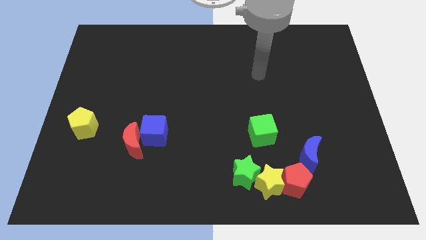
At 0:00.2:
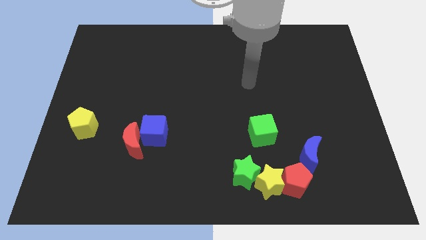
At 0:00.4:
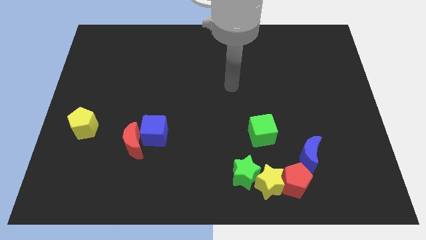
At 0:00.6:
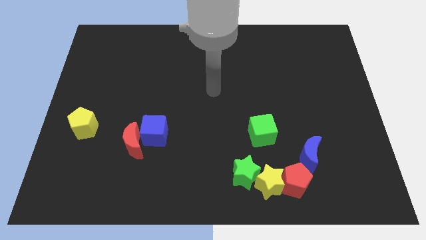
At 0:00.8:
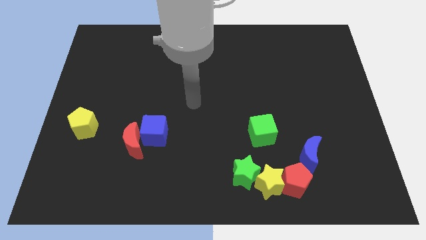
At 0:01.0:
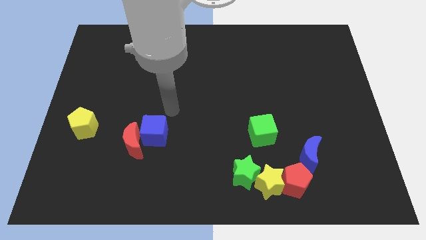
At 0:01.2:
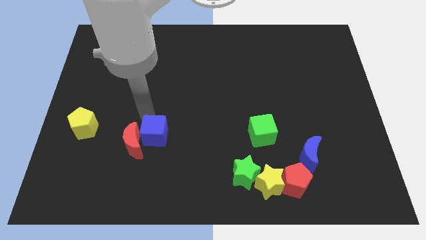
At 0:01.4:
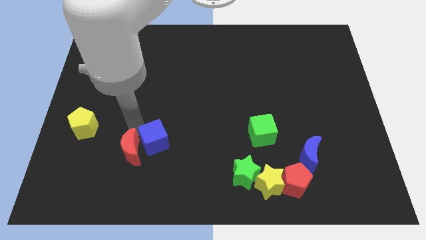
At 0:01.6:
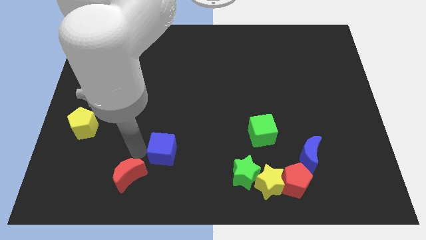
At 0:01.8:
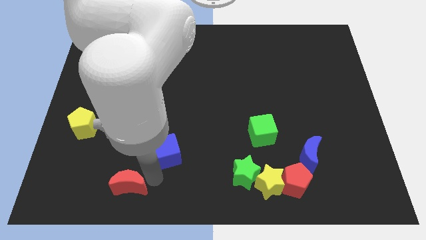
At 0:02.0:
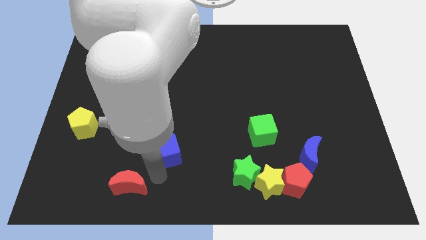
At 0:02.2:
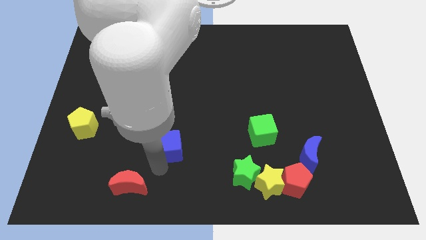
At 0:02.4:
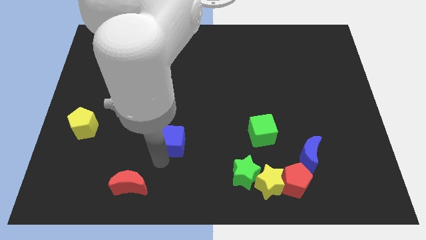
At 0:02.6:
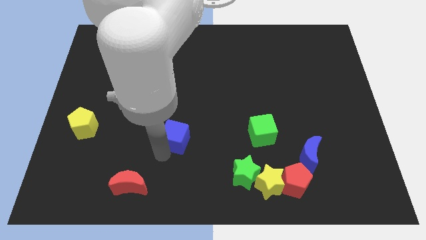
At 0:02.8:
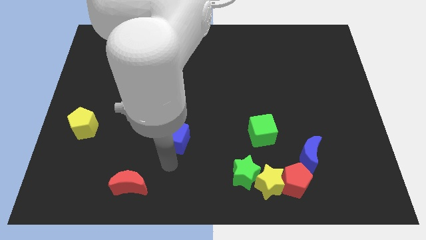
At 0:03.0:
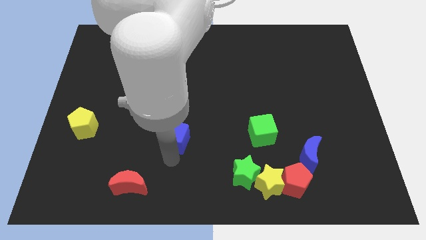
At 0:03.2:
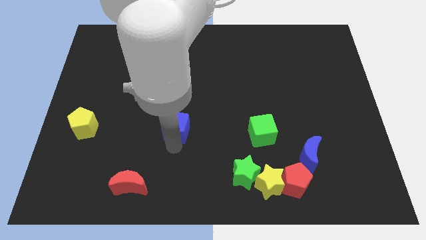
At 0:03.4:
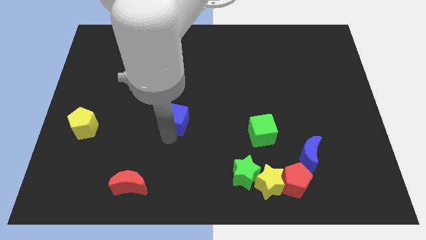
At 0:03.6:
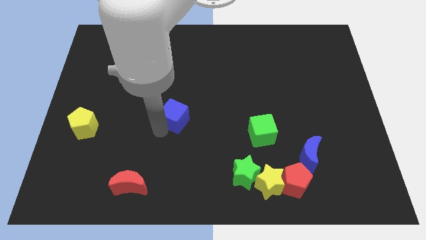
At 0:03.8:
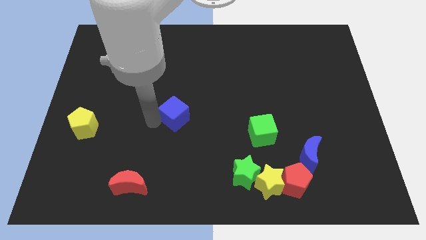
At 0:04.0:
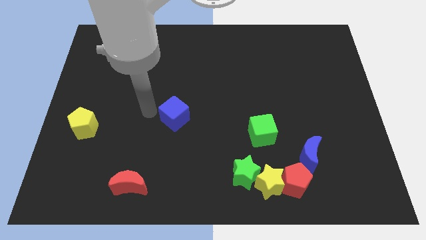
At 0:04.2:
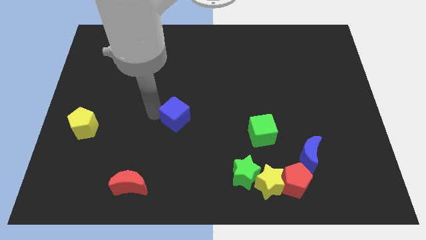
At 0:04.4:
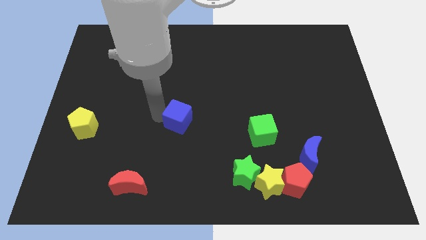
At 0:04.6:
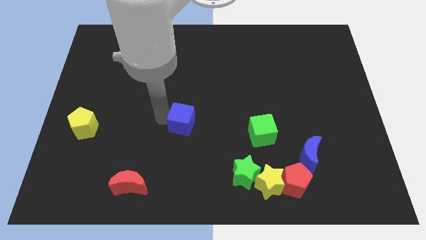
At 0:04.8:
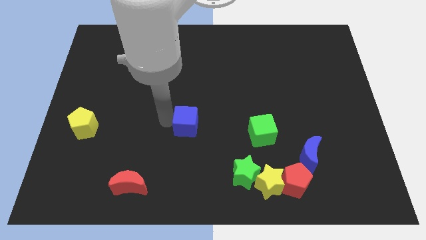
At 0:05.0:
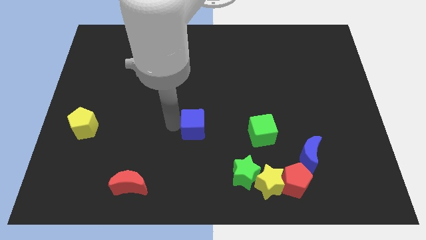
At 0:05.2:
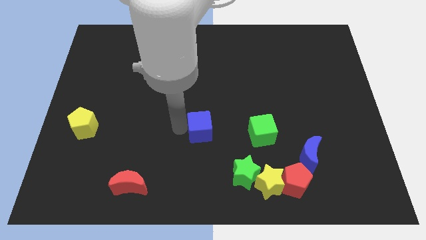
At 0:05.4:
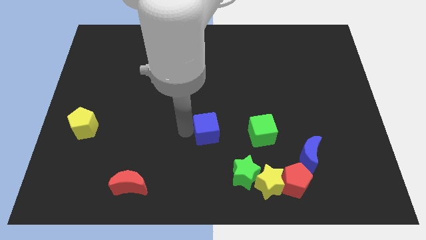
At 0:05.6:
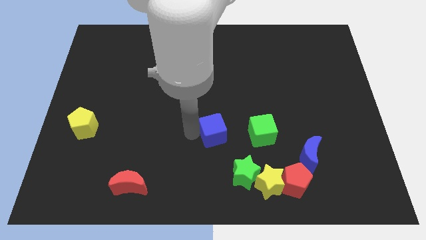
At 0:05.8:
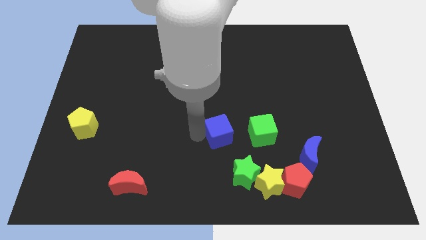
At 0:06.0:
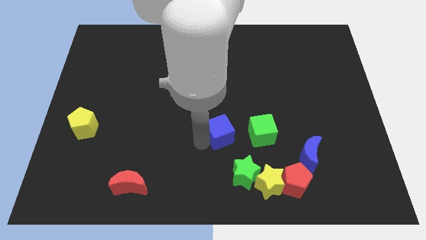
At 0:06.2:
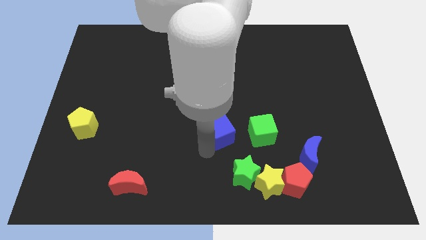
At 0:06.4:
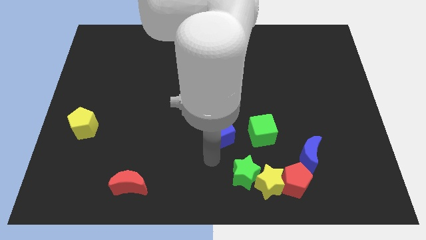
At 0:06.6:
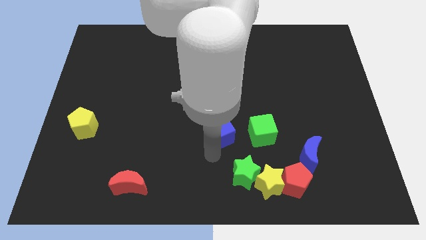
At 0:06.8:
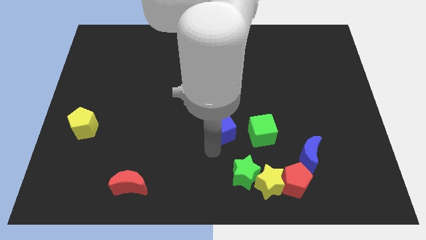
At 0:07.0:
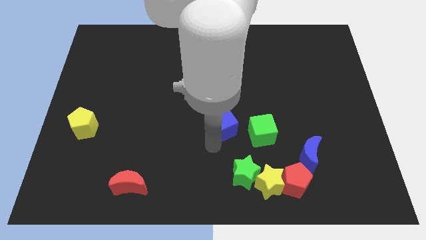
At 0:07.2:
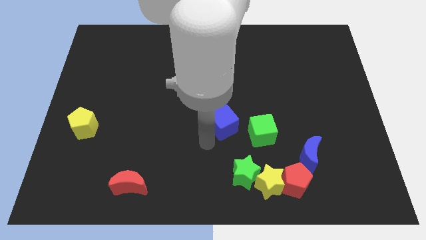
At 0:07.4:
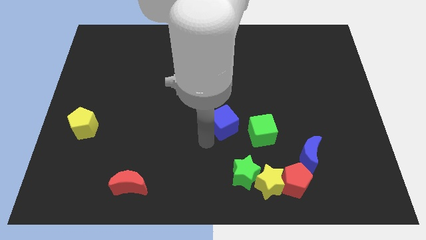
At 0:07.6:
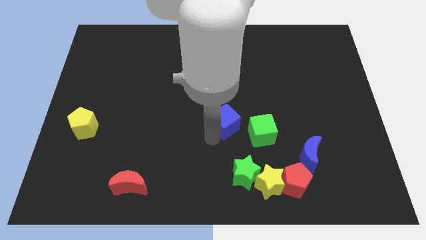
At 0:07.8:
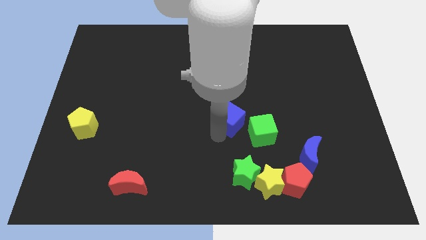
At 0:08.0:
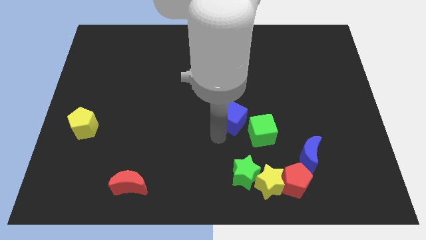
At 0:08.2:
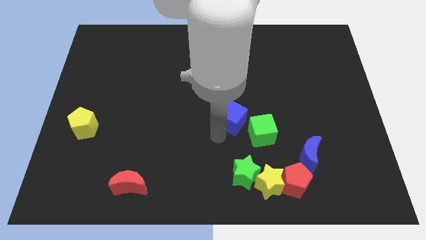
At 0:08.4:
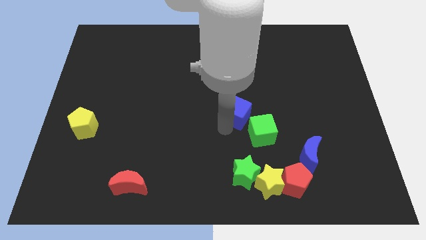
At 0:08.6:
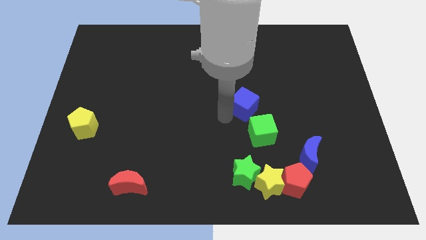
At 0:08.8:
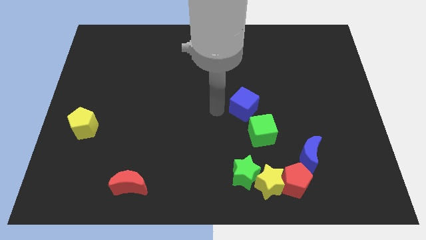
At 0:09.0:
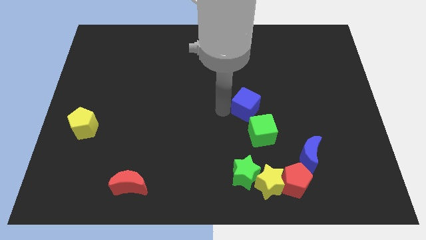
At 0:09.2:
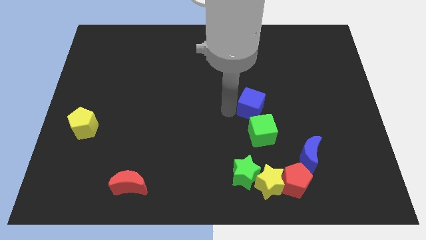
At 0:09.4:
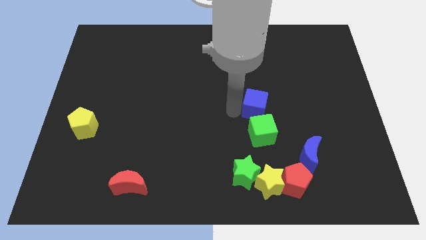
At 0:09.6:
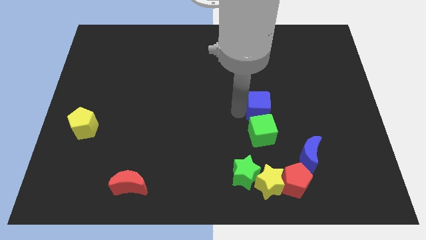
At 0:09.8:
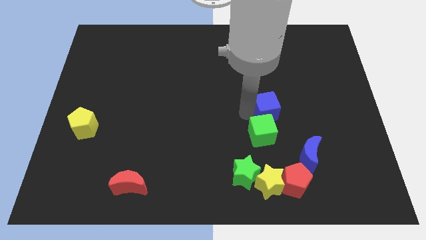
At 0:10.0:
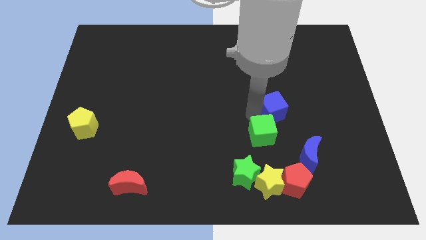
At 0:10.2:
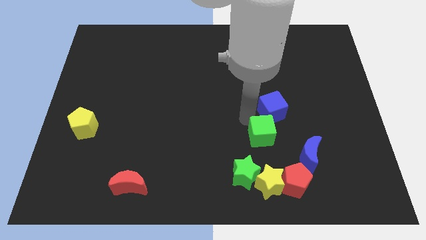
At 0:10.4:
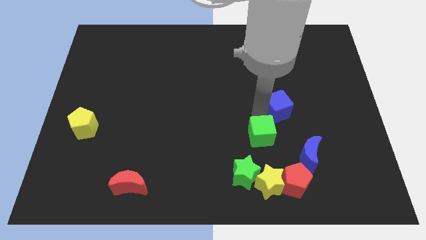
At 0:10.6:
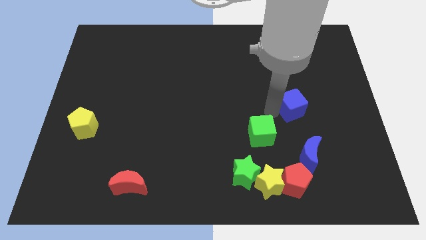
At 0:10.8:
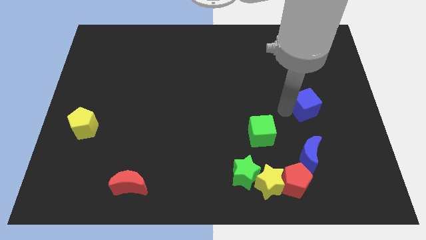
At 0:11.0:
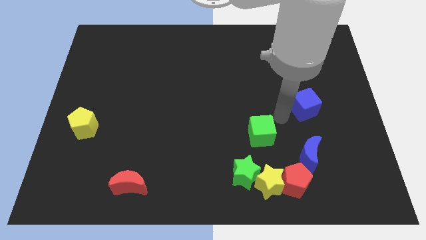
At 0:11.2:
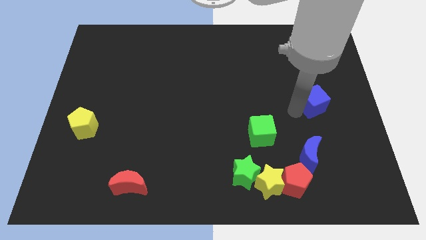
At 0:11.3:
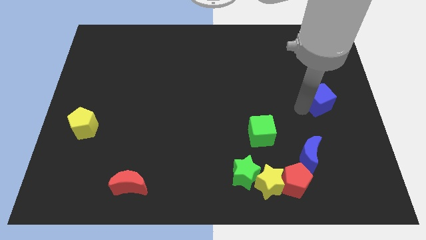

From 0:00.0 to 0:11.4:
put the blue cube to the center right

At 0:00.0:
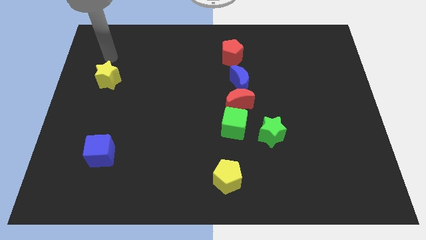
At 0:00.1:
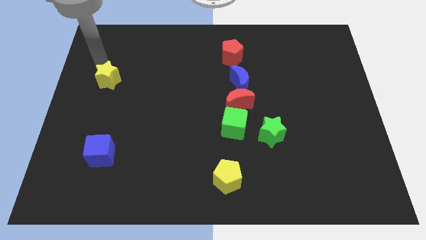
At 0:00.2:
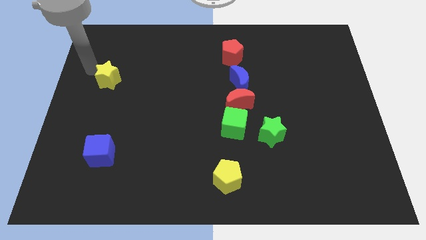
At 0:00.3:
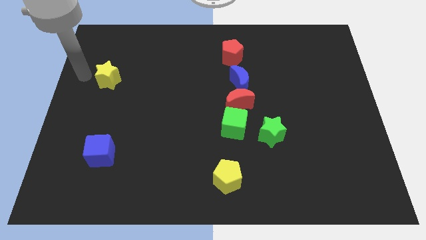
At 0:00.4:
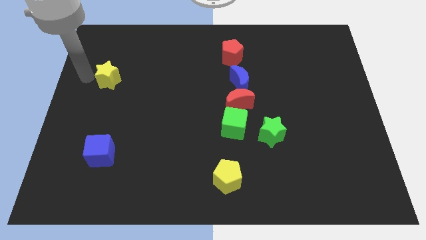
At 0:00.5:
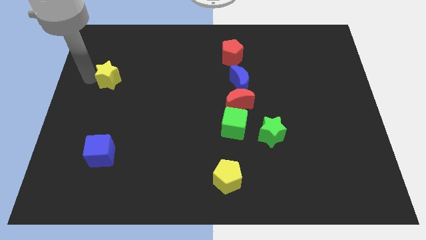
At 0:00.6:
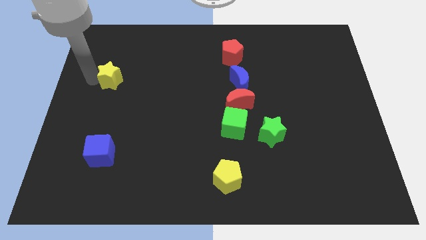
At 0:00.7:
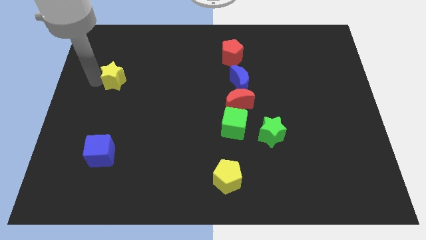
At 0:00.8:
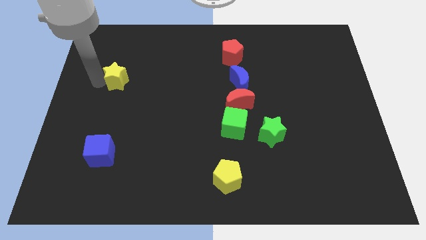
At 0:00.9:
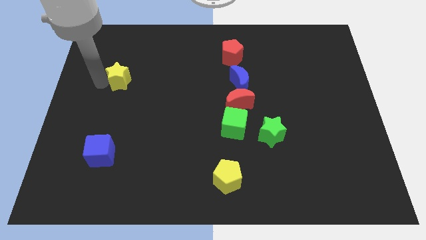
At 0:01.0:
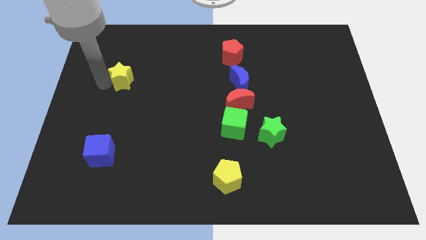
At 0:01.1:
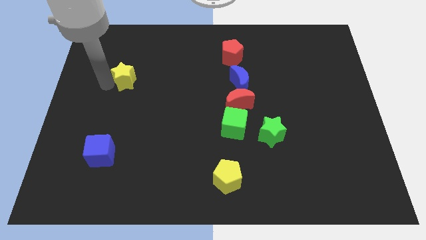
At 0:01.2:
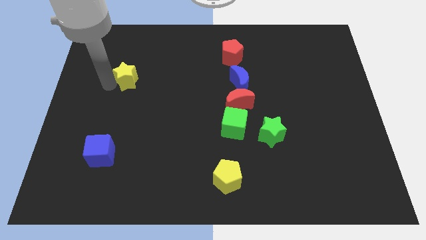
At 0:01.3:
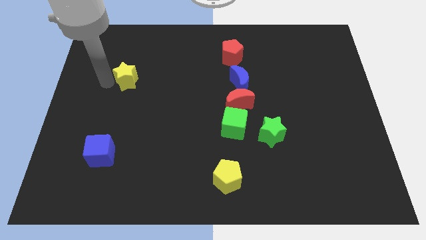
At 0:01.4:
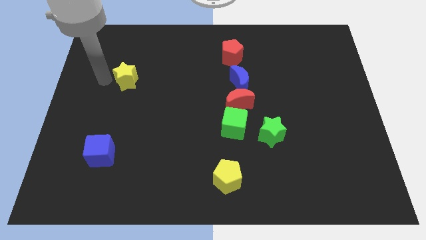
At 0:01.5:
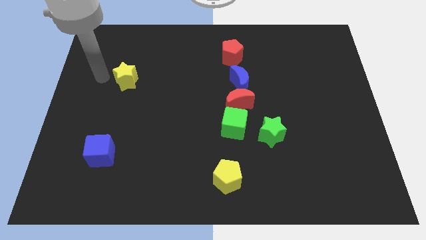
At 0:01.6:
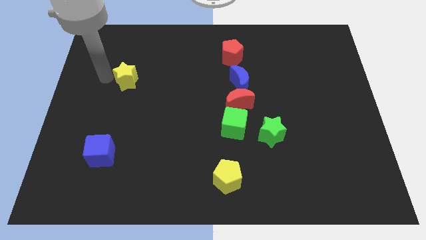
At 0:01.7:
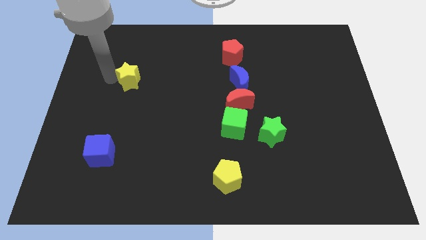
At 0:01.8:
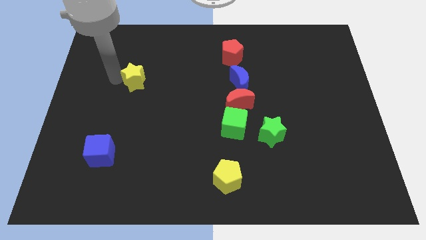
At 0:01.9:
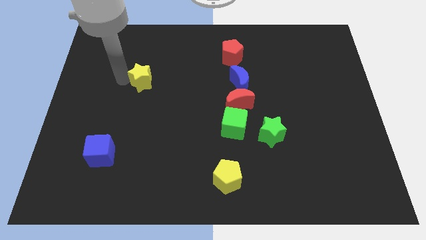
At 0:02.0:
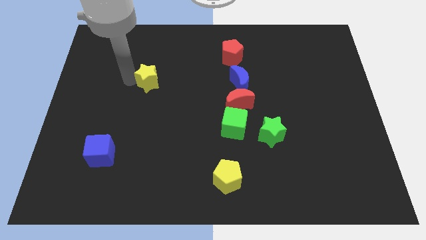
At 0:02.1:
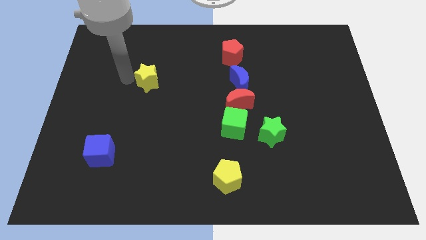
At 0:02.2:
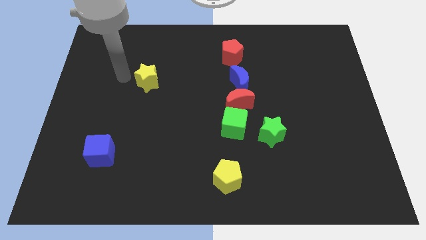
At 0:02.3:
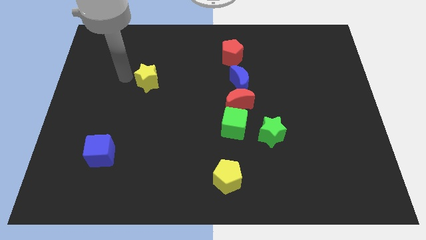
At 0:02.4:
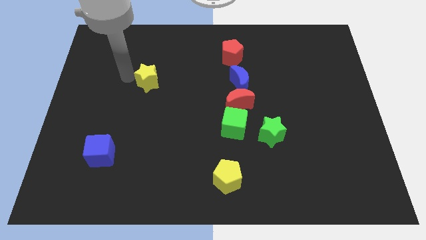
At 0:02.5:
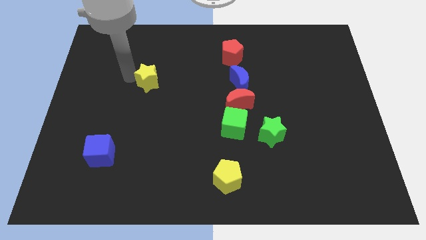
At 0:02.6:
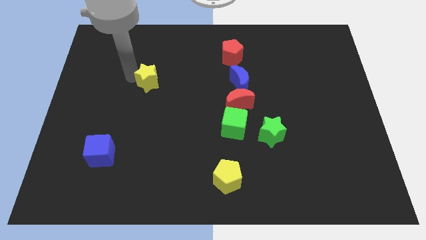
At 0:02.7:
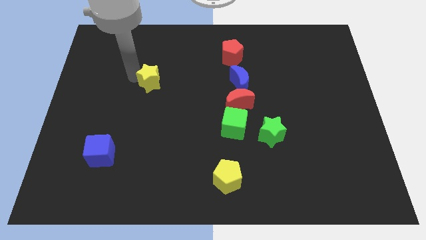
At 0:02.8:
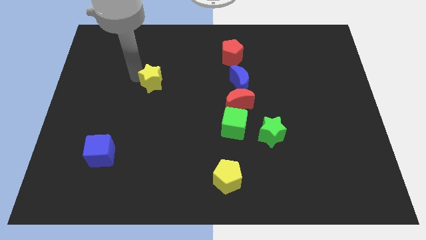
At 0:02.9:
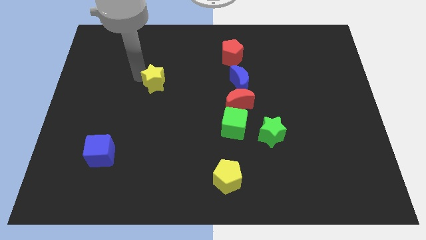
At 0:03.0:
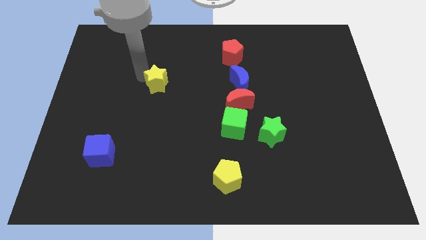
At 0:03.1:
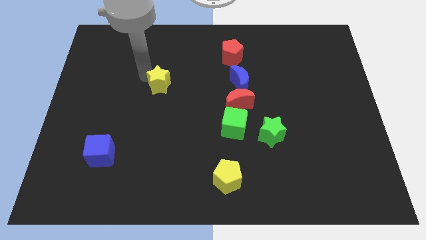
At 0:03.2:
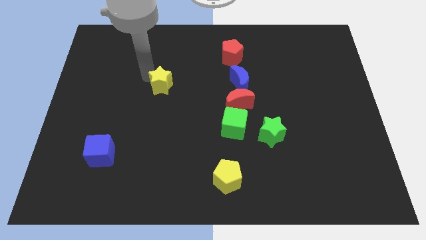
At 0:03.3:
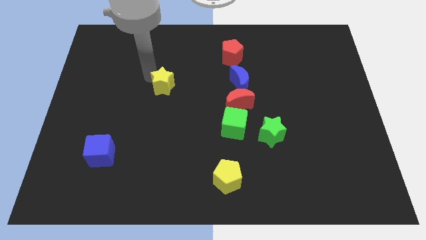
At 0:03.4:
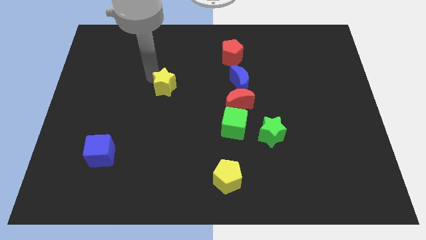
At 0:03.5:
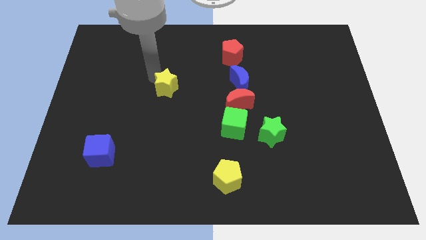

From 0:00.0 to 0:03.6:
put the yellow star to the center of the board
